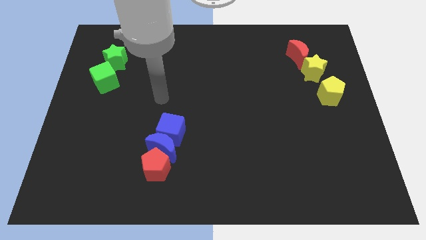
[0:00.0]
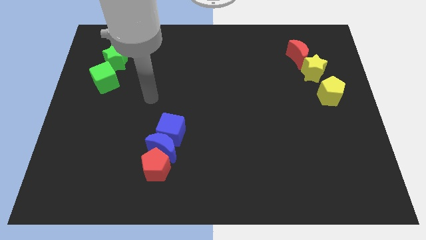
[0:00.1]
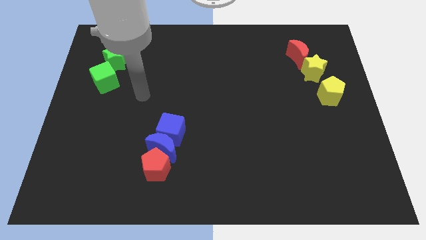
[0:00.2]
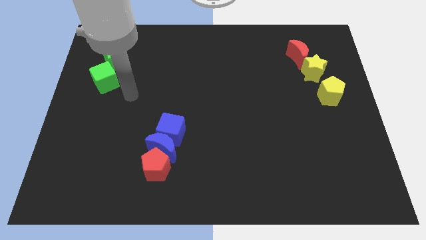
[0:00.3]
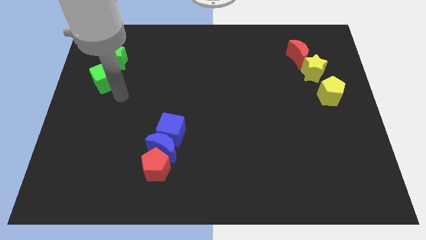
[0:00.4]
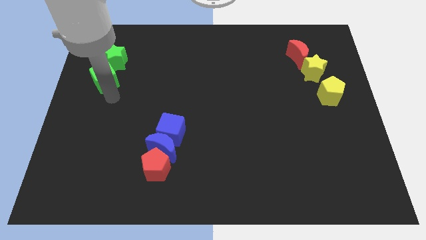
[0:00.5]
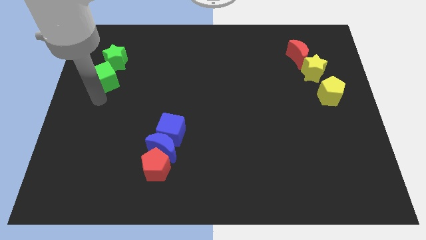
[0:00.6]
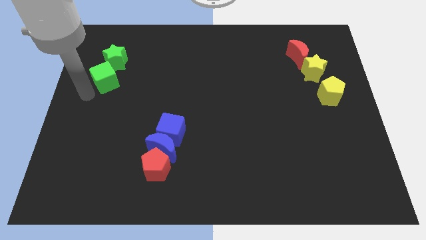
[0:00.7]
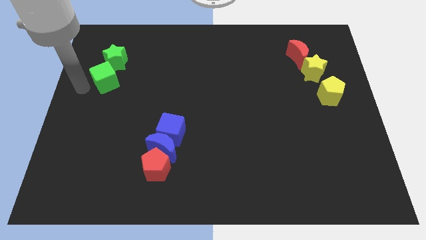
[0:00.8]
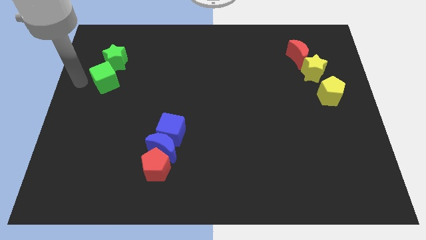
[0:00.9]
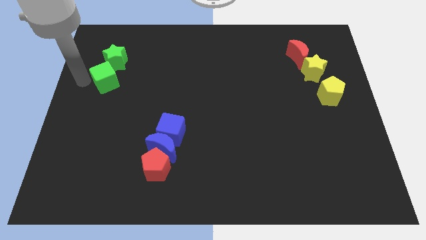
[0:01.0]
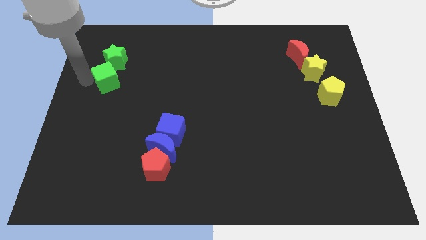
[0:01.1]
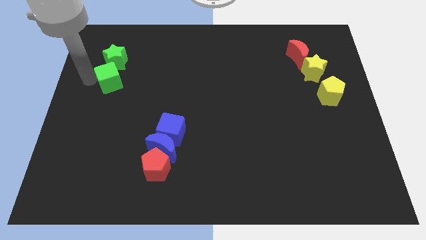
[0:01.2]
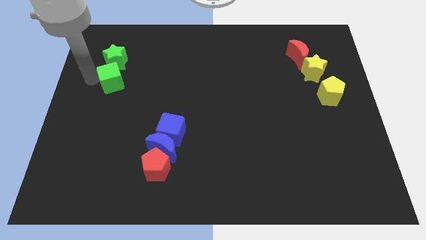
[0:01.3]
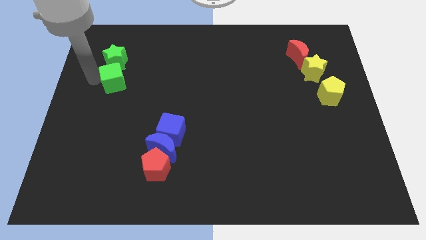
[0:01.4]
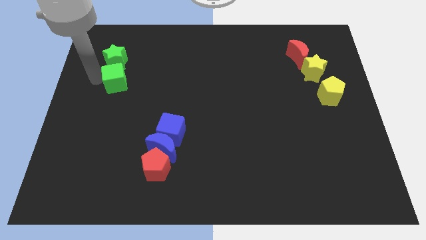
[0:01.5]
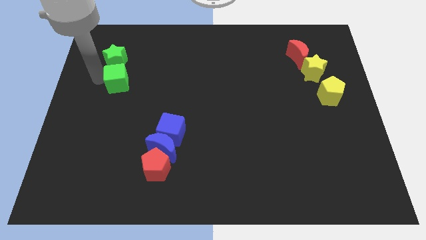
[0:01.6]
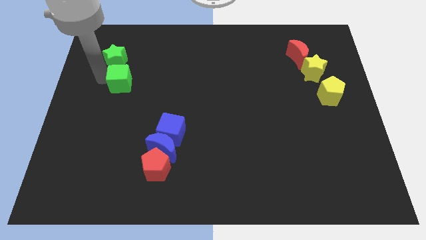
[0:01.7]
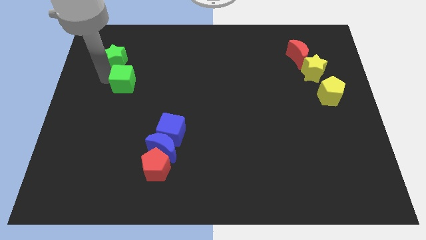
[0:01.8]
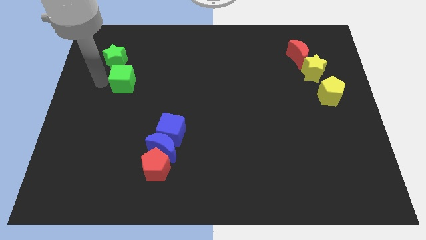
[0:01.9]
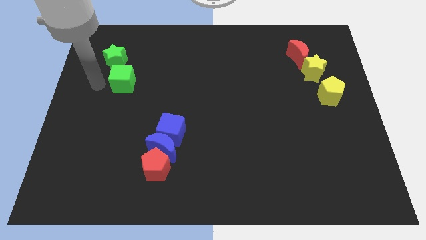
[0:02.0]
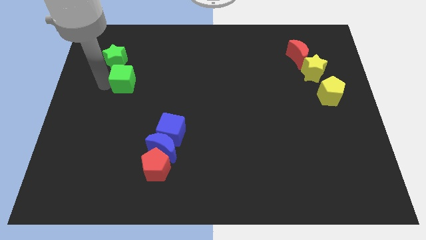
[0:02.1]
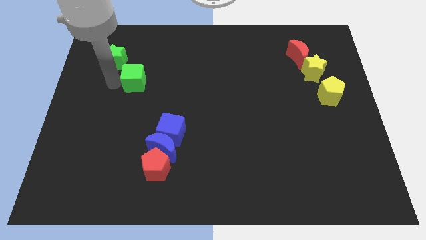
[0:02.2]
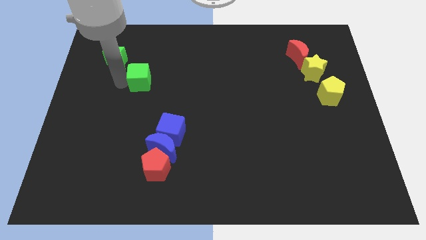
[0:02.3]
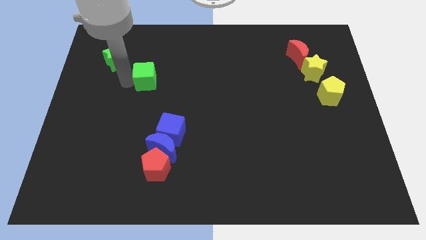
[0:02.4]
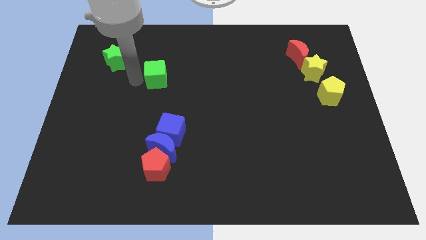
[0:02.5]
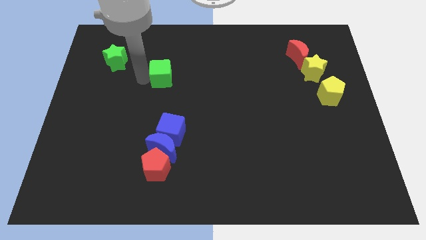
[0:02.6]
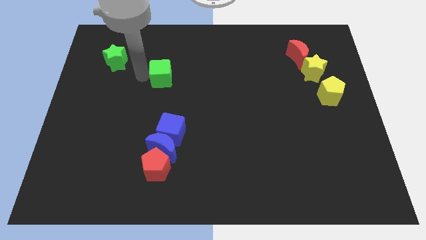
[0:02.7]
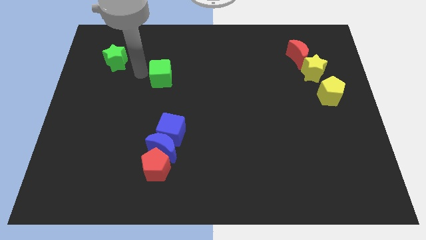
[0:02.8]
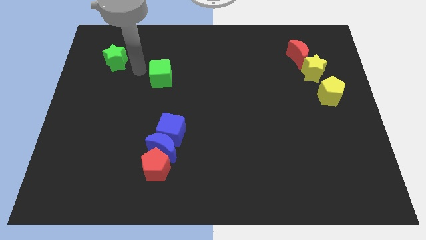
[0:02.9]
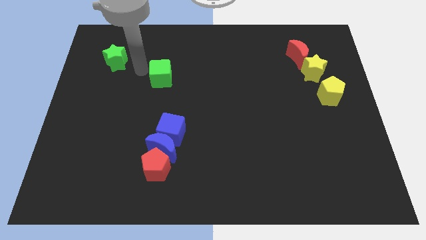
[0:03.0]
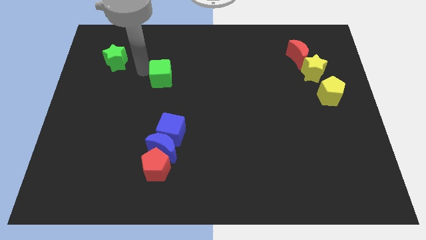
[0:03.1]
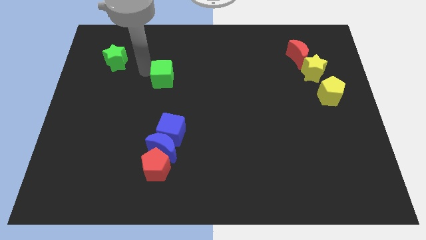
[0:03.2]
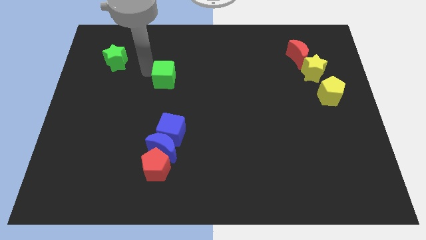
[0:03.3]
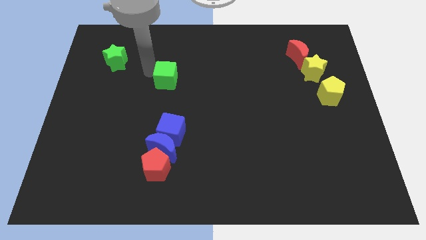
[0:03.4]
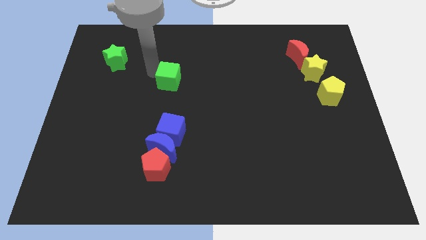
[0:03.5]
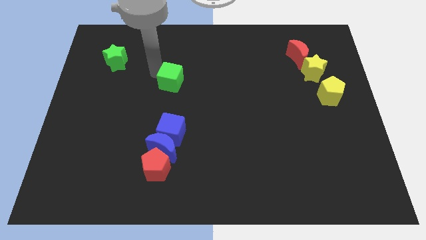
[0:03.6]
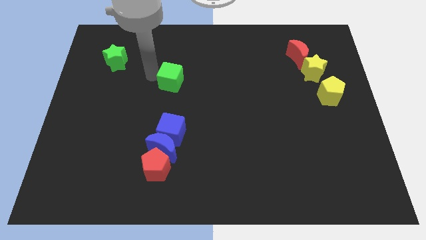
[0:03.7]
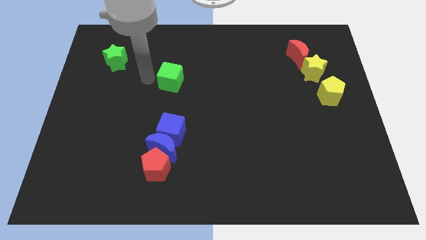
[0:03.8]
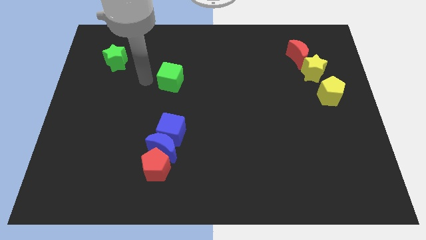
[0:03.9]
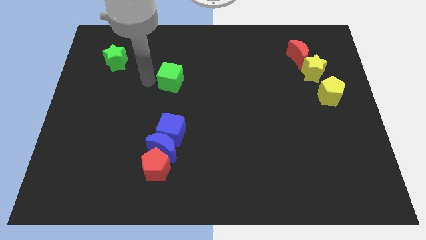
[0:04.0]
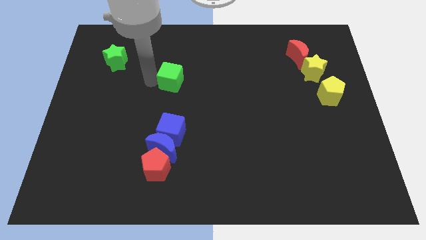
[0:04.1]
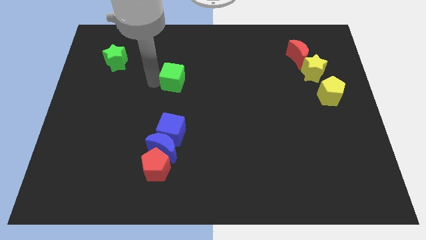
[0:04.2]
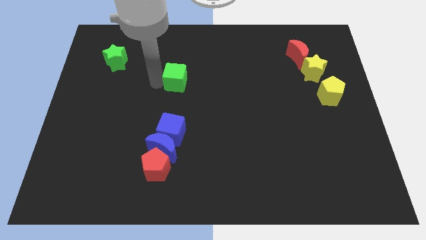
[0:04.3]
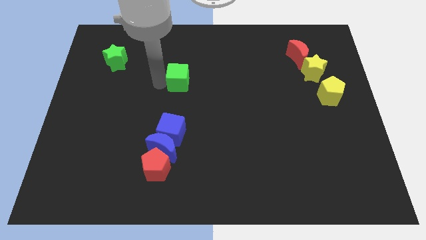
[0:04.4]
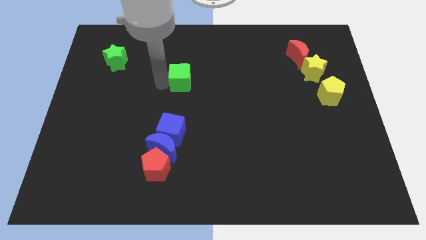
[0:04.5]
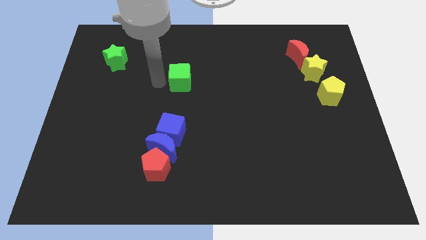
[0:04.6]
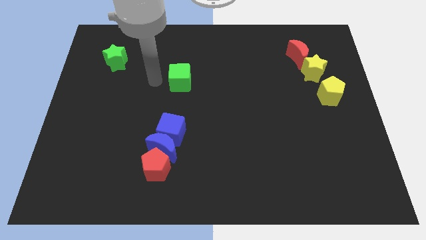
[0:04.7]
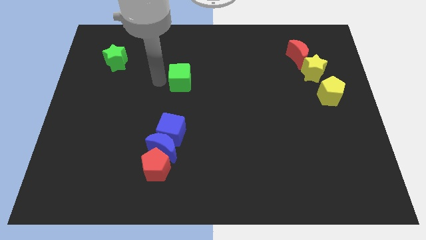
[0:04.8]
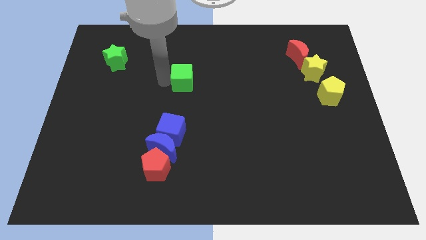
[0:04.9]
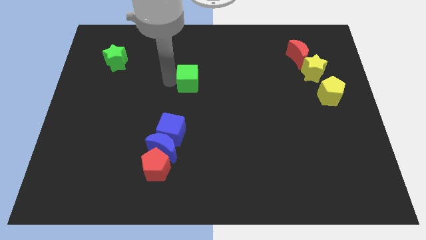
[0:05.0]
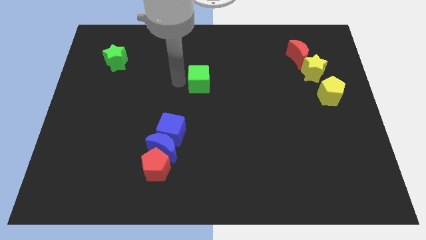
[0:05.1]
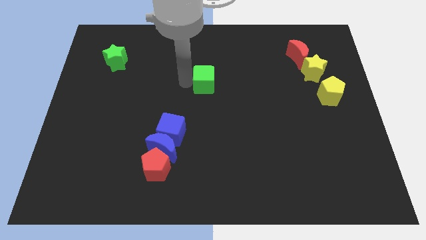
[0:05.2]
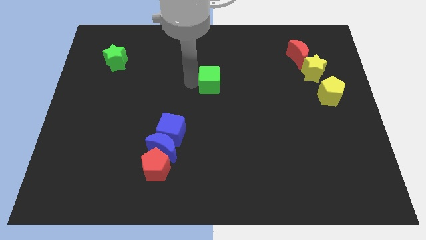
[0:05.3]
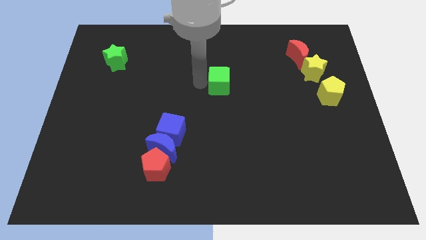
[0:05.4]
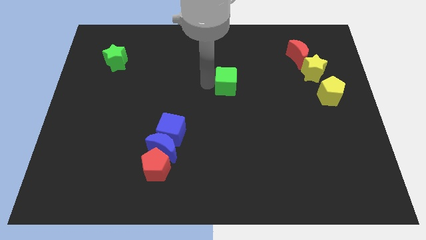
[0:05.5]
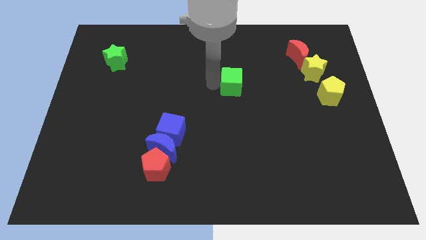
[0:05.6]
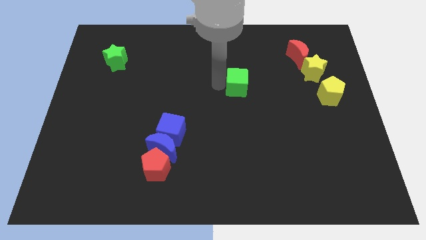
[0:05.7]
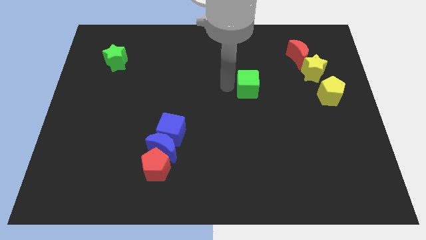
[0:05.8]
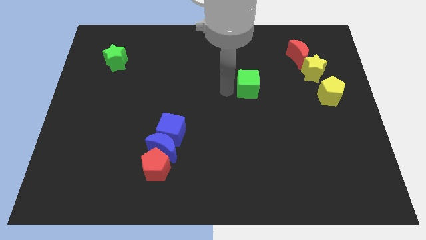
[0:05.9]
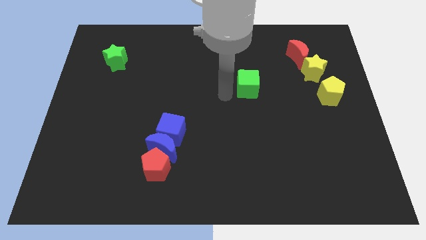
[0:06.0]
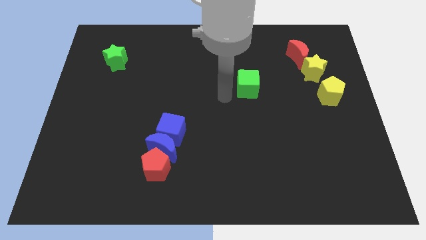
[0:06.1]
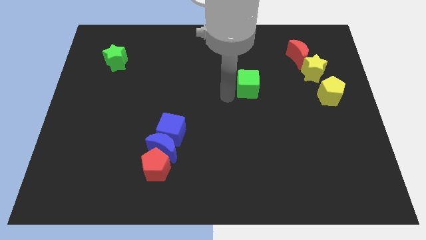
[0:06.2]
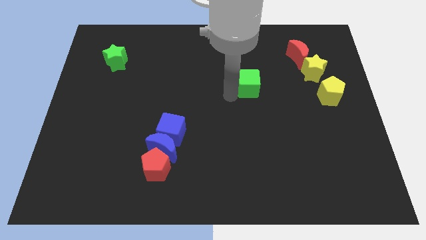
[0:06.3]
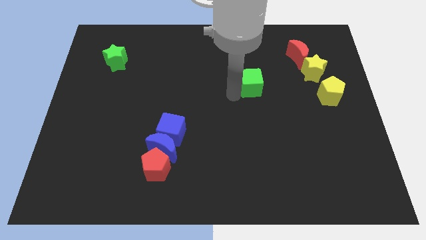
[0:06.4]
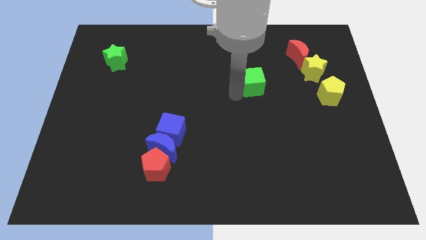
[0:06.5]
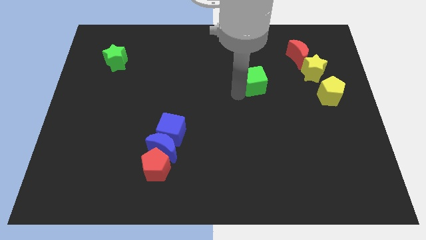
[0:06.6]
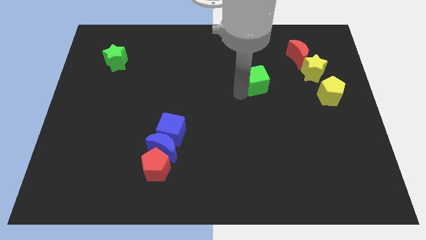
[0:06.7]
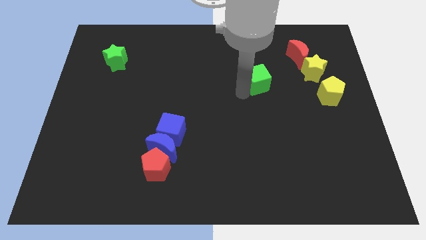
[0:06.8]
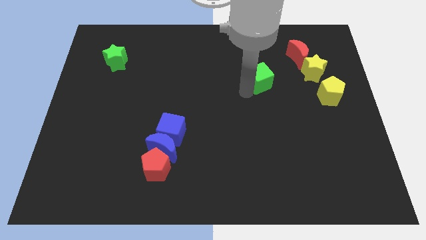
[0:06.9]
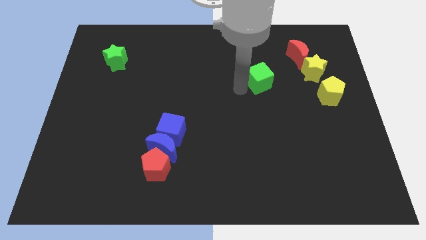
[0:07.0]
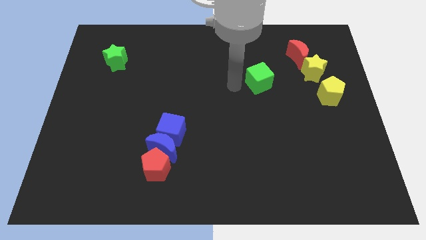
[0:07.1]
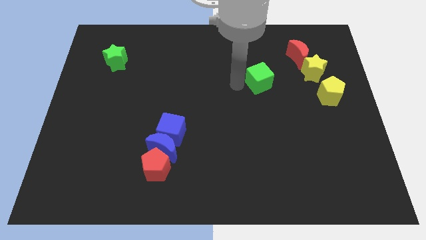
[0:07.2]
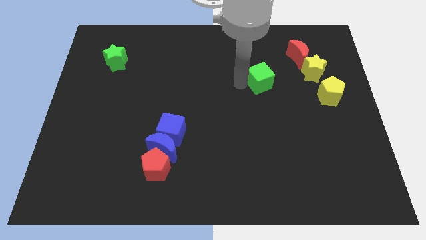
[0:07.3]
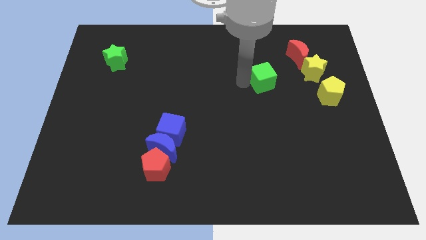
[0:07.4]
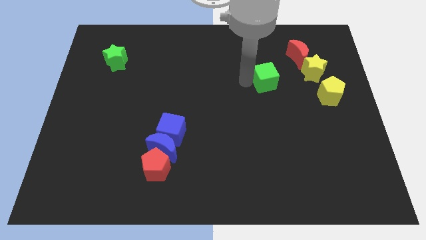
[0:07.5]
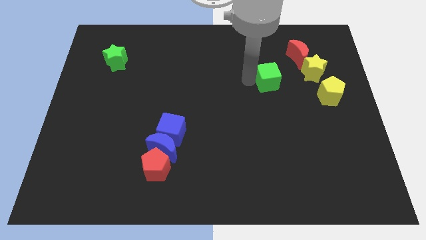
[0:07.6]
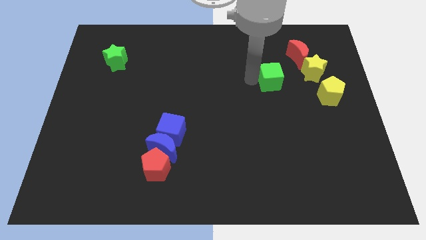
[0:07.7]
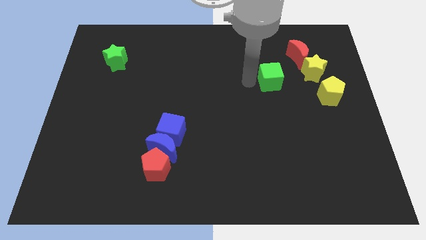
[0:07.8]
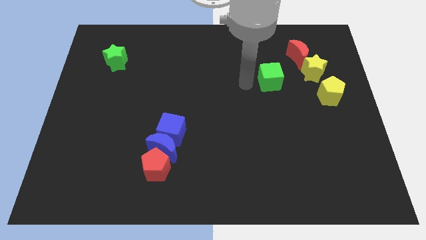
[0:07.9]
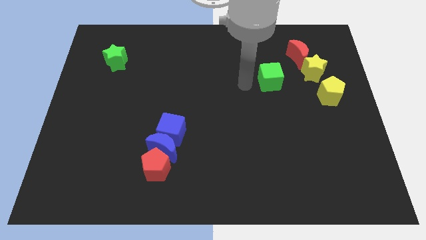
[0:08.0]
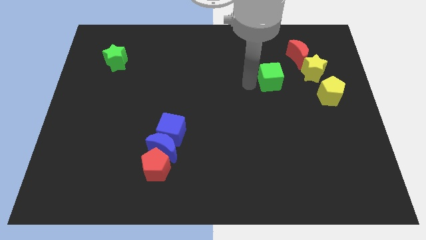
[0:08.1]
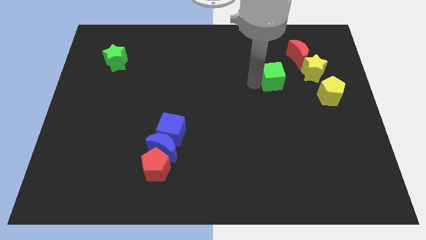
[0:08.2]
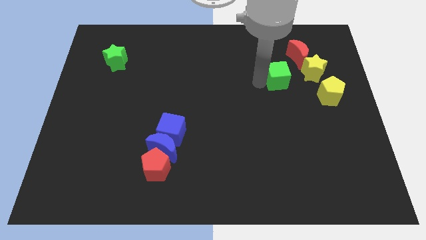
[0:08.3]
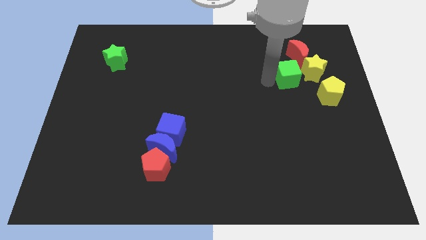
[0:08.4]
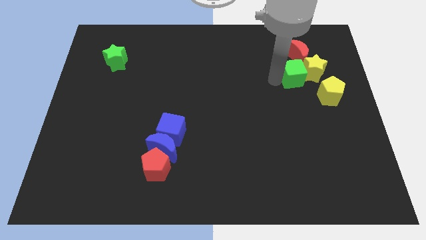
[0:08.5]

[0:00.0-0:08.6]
move the green cube to the yellow star
